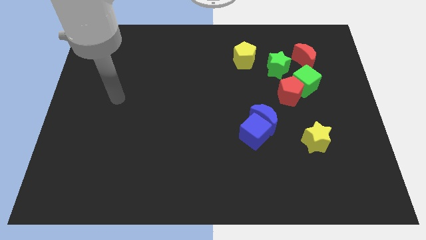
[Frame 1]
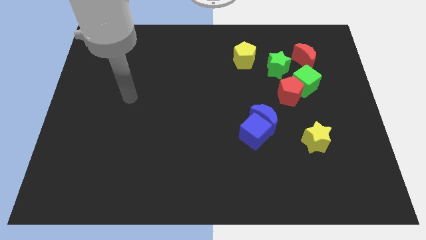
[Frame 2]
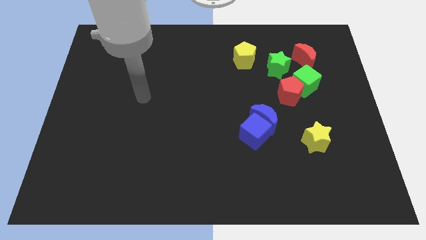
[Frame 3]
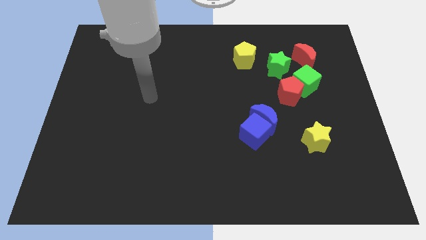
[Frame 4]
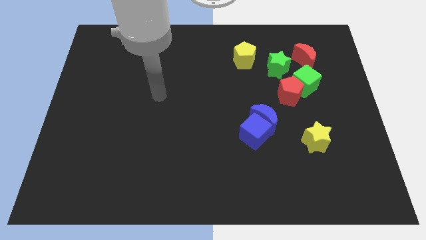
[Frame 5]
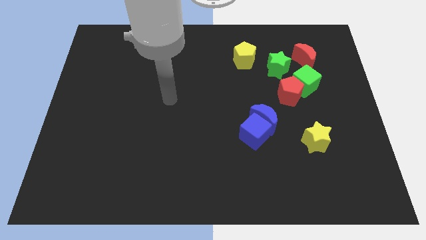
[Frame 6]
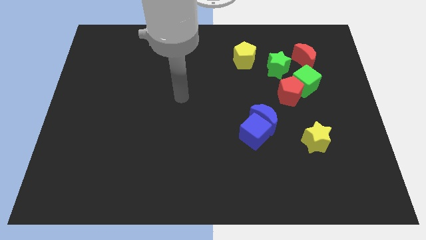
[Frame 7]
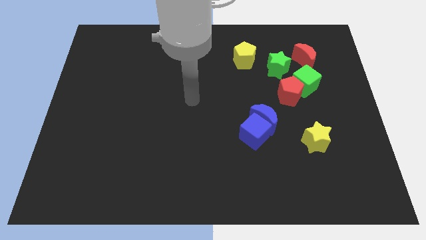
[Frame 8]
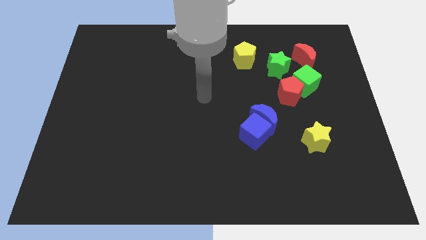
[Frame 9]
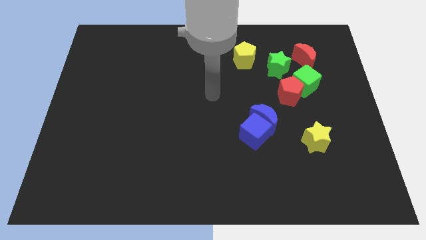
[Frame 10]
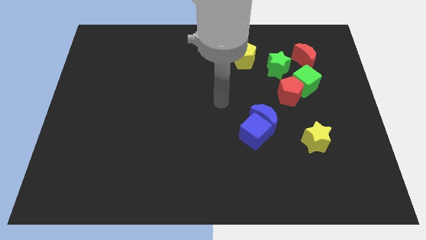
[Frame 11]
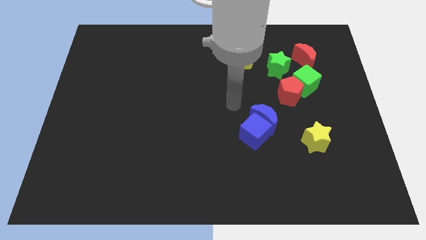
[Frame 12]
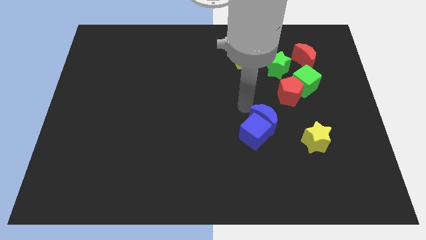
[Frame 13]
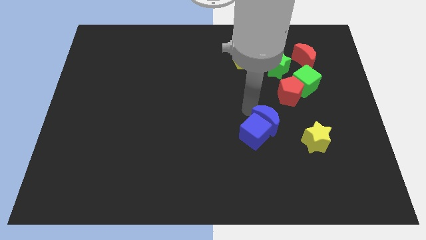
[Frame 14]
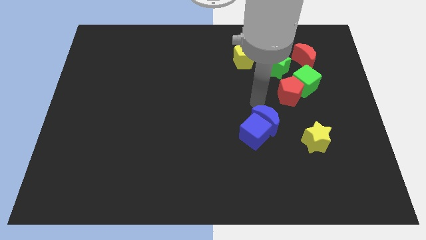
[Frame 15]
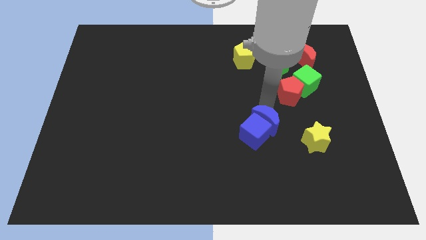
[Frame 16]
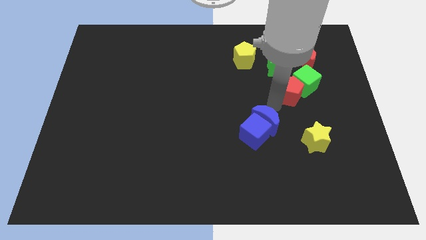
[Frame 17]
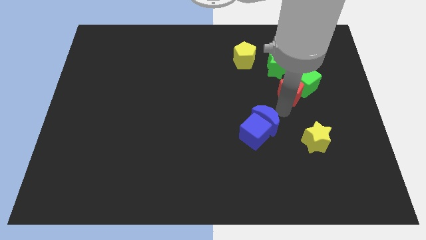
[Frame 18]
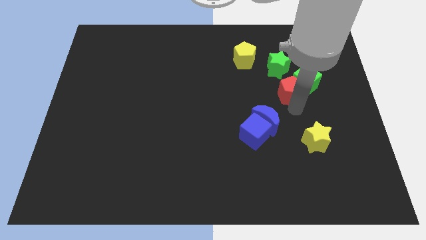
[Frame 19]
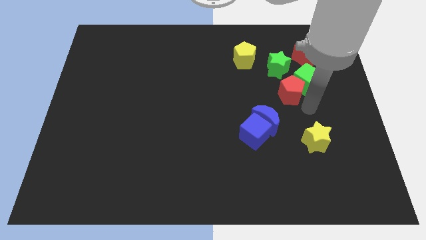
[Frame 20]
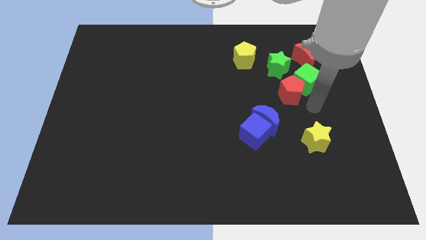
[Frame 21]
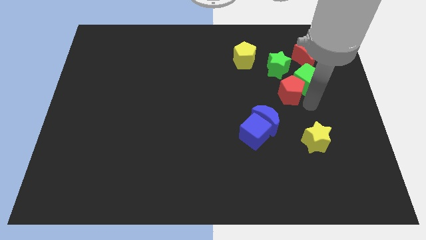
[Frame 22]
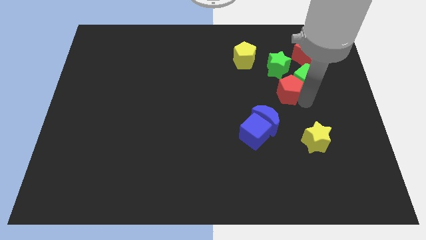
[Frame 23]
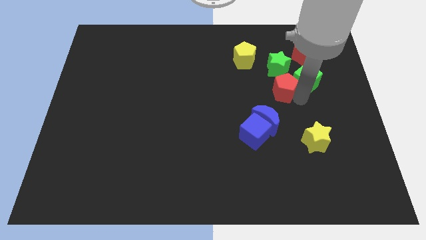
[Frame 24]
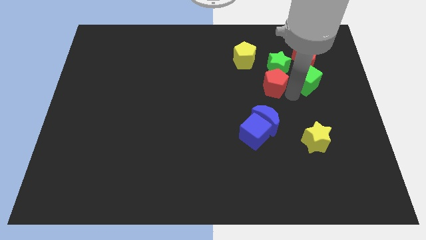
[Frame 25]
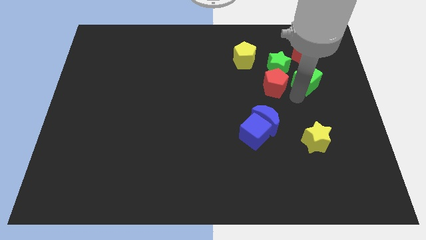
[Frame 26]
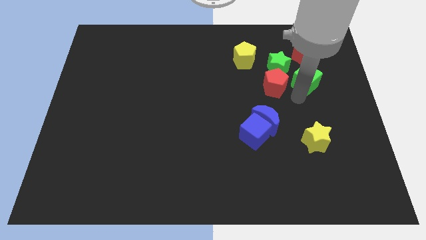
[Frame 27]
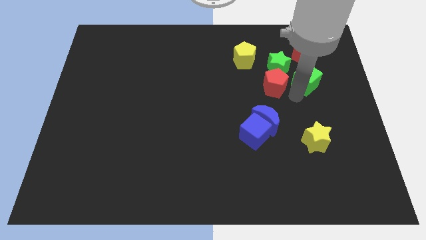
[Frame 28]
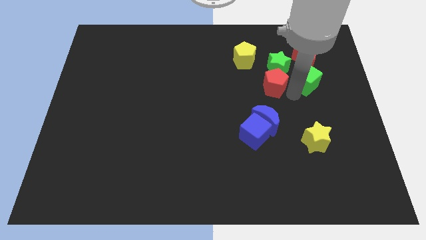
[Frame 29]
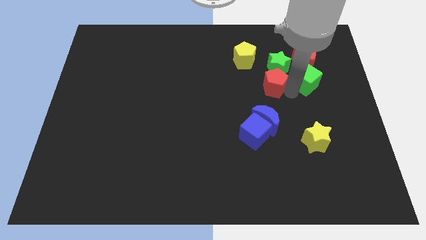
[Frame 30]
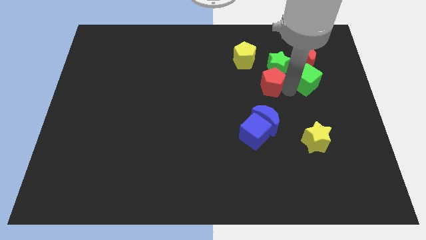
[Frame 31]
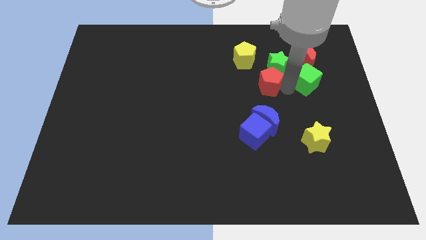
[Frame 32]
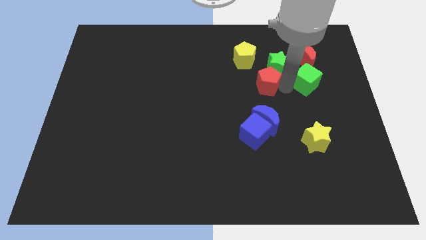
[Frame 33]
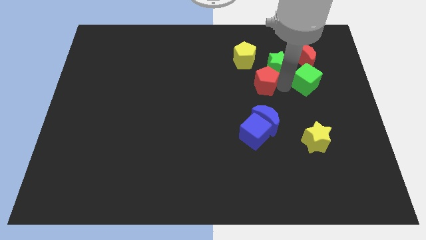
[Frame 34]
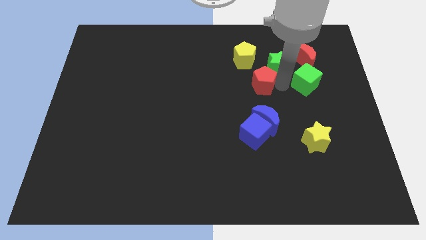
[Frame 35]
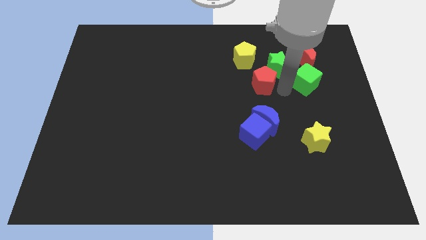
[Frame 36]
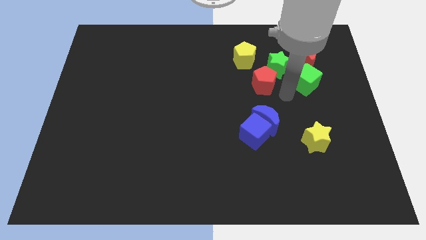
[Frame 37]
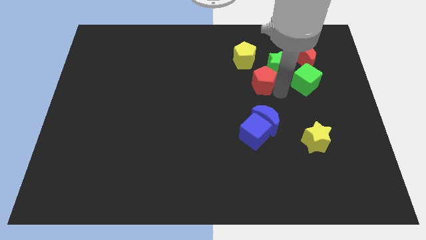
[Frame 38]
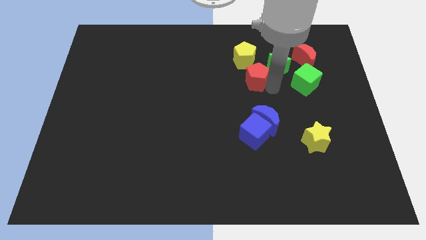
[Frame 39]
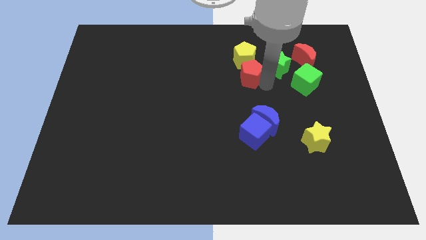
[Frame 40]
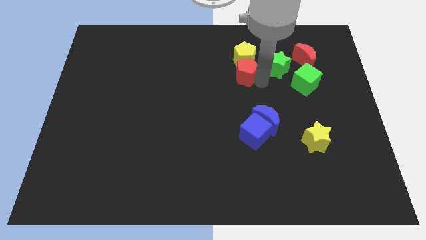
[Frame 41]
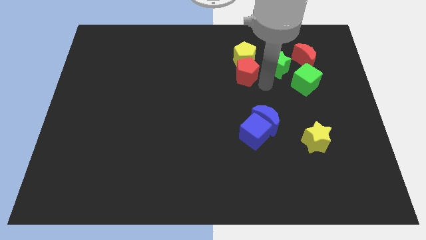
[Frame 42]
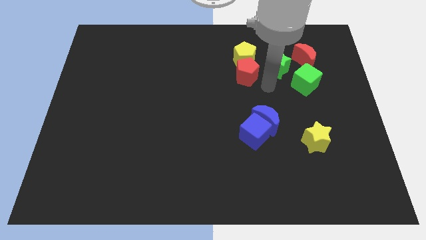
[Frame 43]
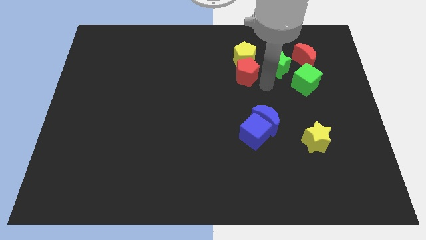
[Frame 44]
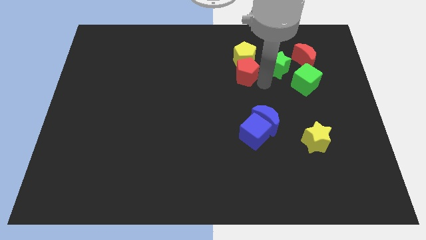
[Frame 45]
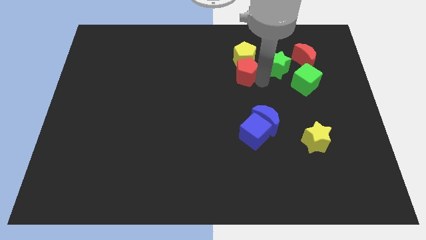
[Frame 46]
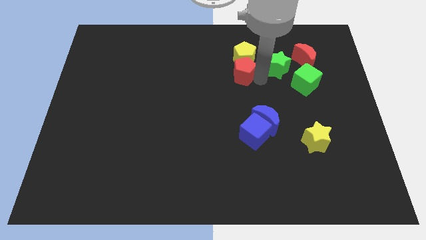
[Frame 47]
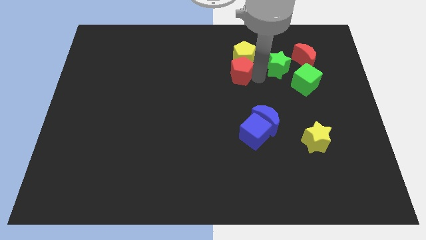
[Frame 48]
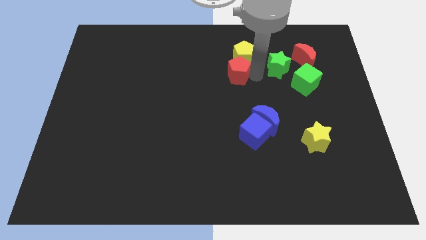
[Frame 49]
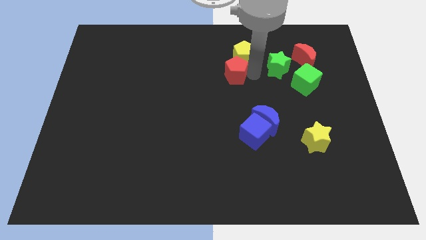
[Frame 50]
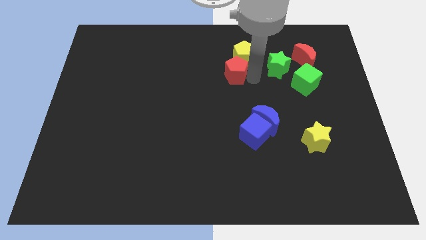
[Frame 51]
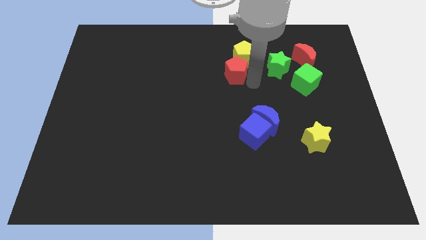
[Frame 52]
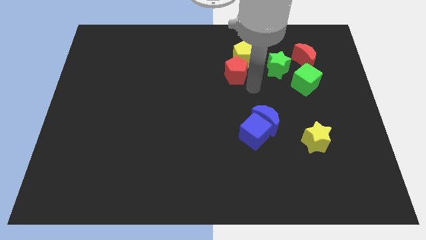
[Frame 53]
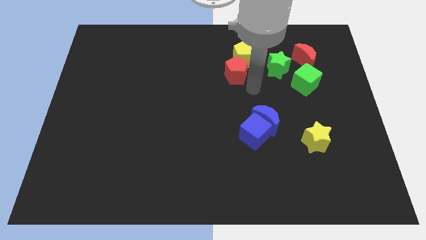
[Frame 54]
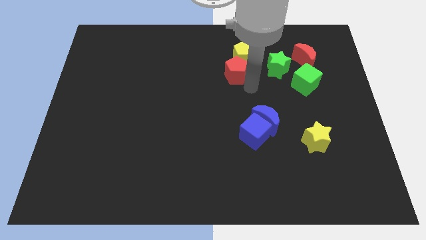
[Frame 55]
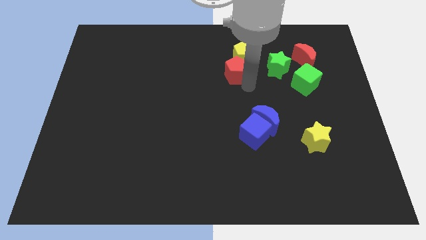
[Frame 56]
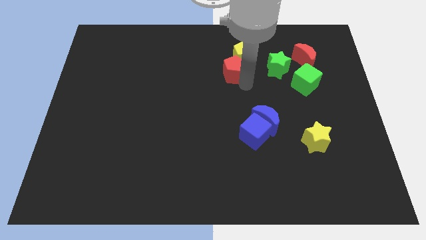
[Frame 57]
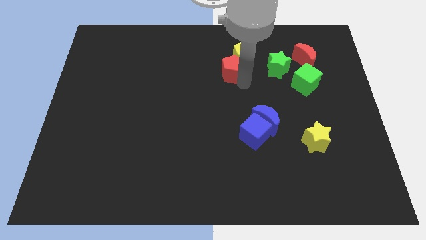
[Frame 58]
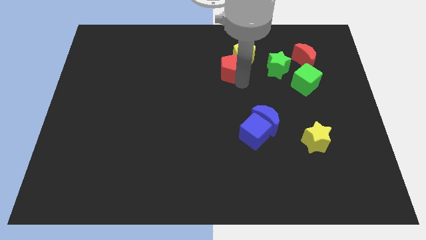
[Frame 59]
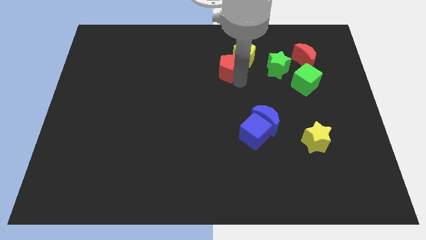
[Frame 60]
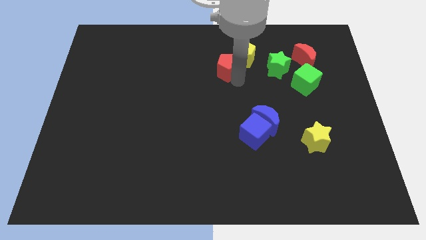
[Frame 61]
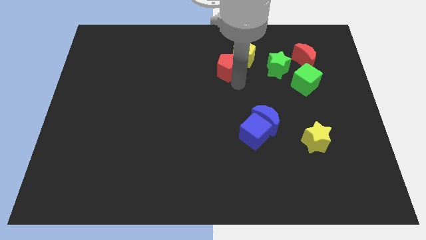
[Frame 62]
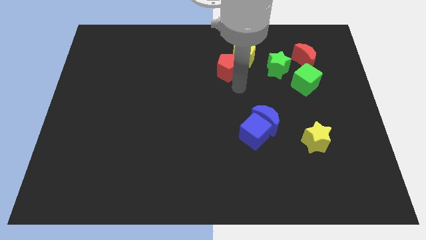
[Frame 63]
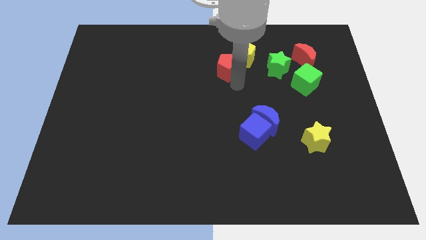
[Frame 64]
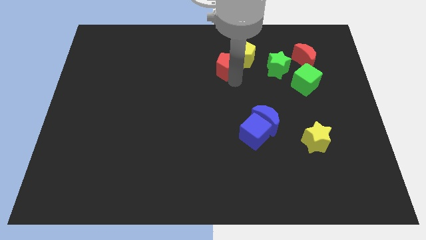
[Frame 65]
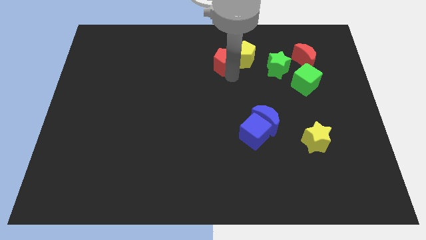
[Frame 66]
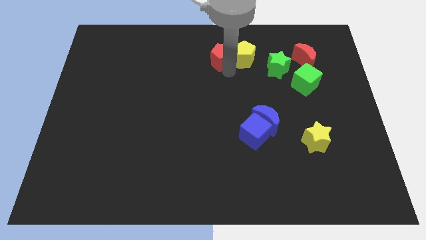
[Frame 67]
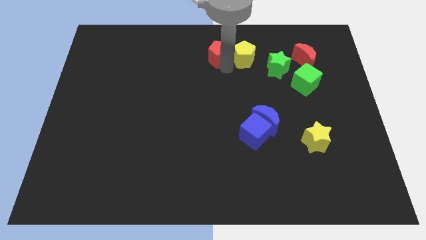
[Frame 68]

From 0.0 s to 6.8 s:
slide the red pentagon to the towards your base
